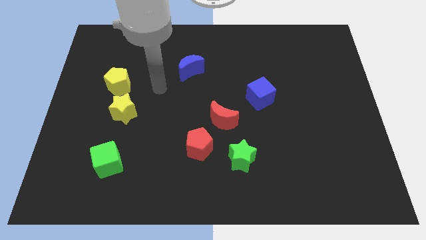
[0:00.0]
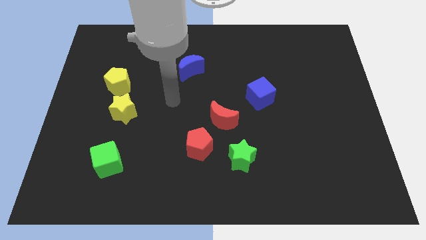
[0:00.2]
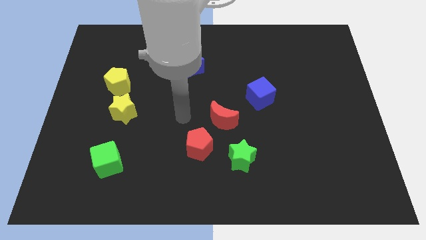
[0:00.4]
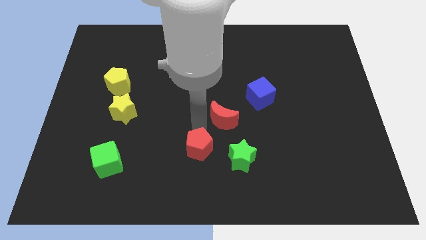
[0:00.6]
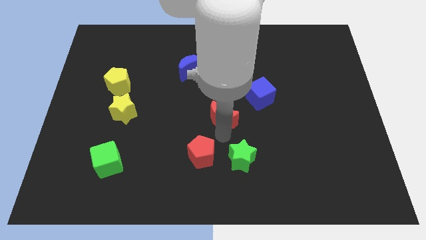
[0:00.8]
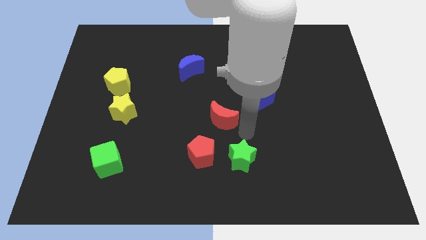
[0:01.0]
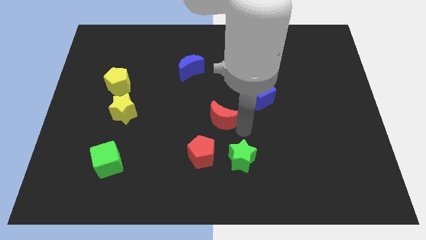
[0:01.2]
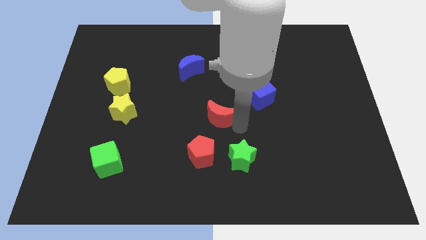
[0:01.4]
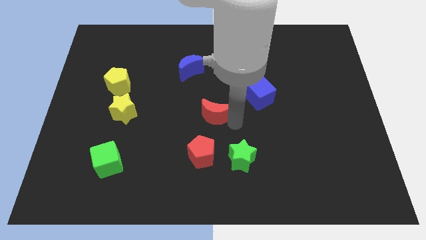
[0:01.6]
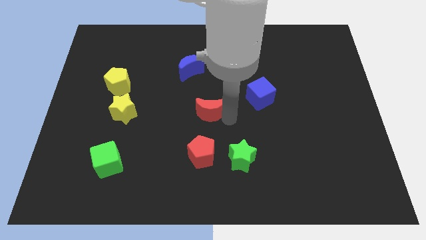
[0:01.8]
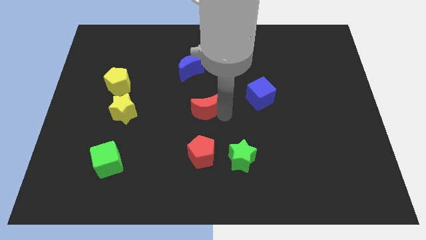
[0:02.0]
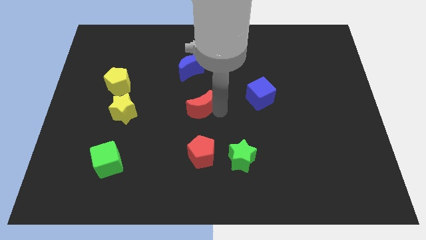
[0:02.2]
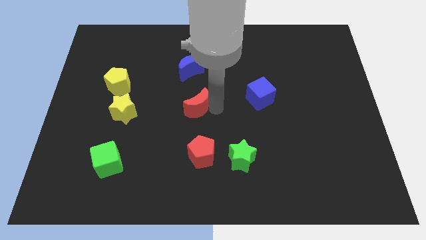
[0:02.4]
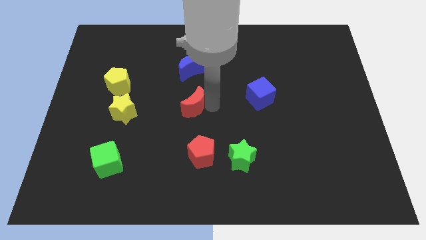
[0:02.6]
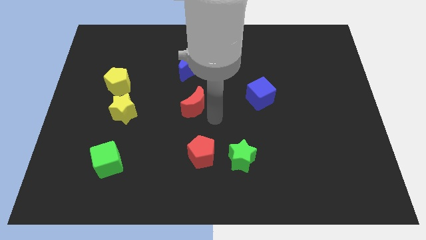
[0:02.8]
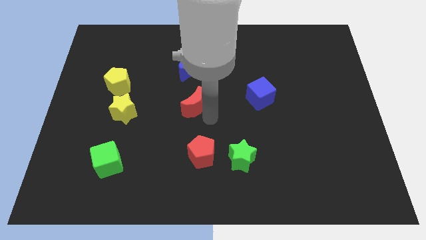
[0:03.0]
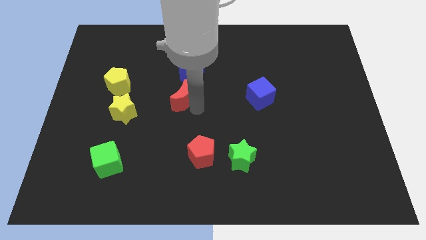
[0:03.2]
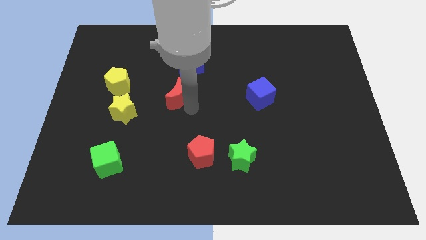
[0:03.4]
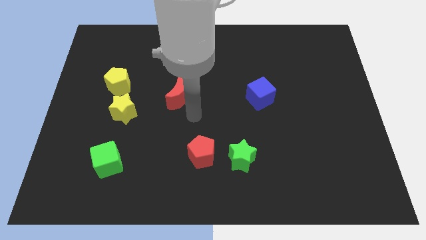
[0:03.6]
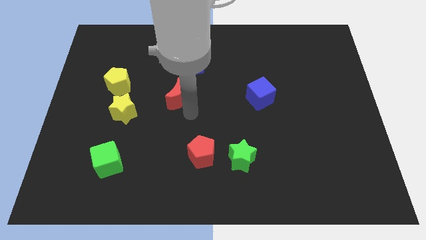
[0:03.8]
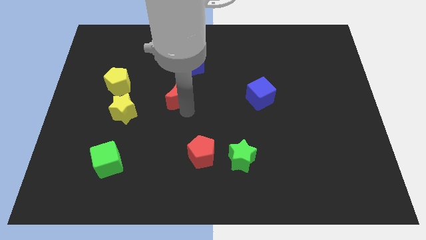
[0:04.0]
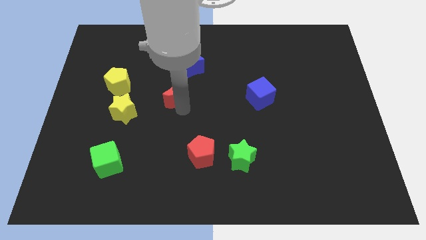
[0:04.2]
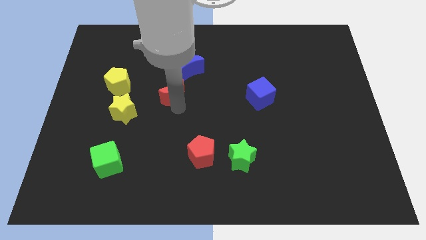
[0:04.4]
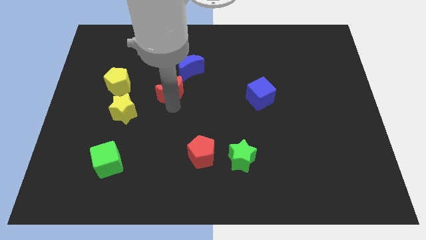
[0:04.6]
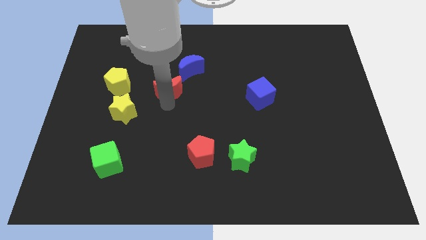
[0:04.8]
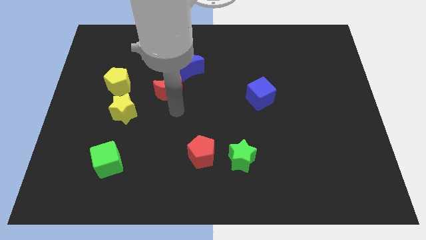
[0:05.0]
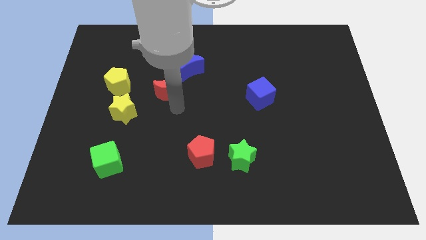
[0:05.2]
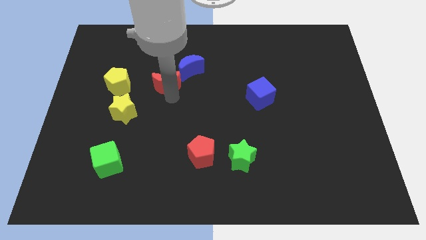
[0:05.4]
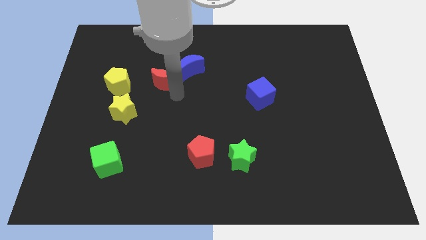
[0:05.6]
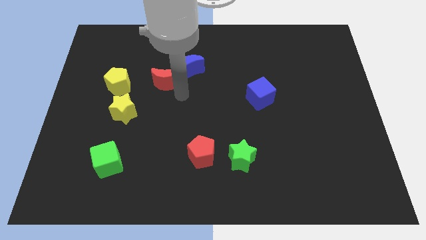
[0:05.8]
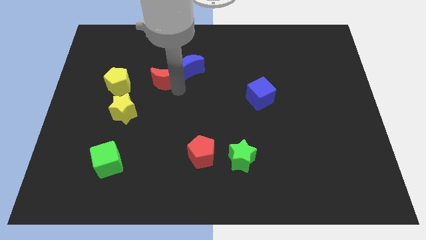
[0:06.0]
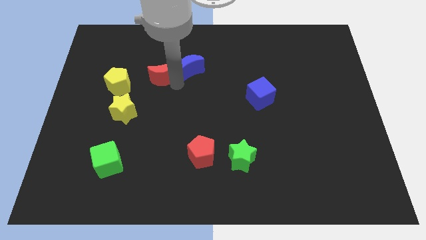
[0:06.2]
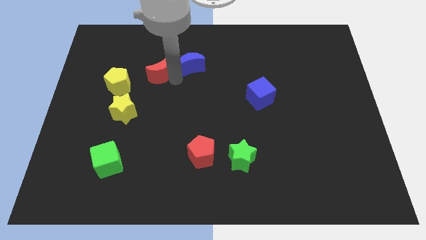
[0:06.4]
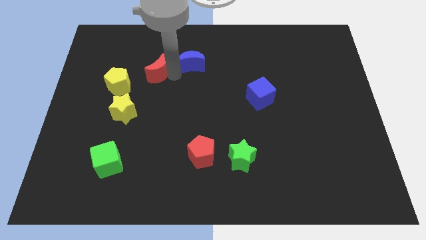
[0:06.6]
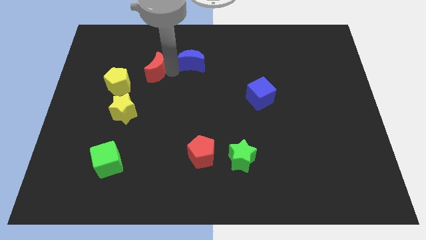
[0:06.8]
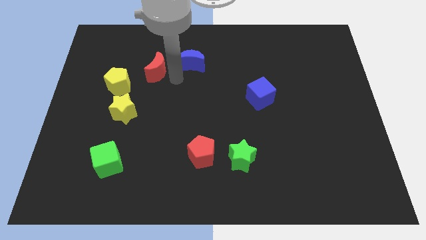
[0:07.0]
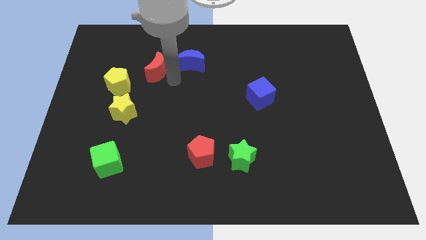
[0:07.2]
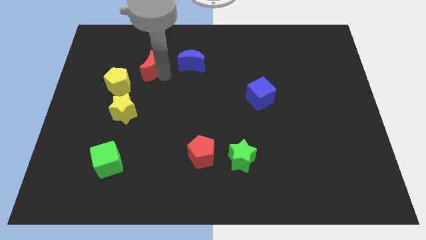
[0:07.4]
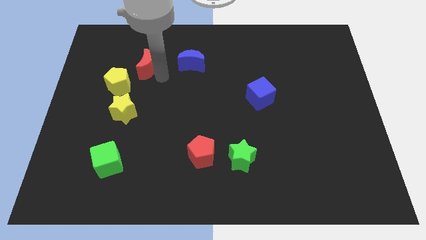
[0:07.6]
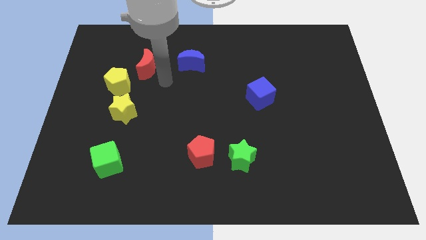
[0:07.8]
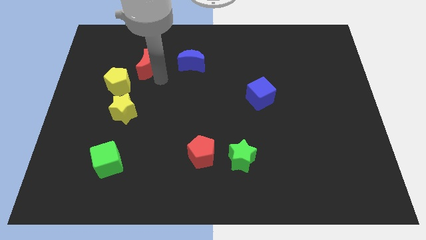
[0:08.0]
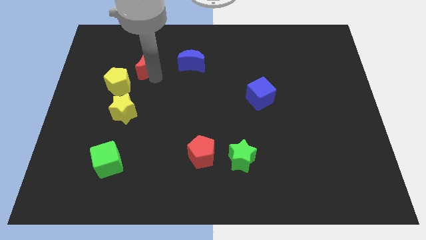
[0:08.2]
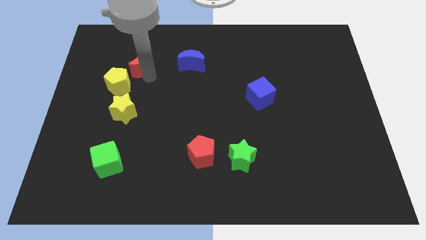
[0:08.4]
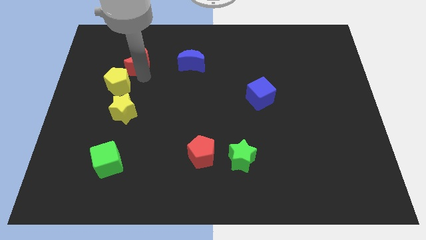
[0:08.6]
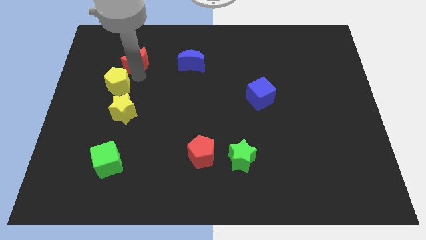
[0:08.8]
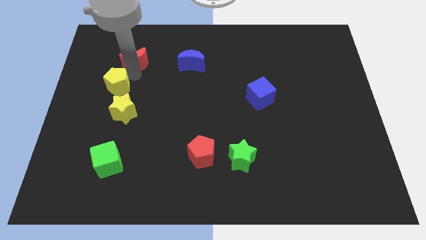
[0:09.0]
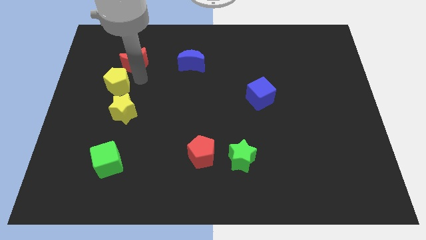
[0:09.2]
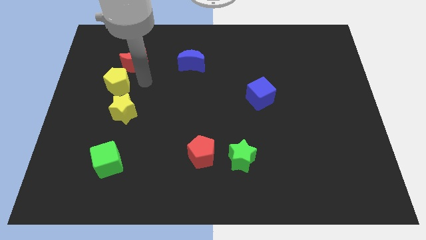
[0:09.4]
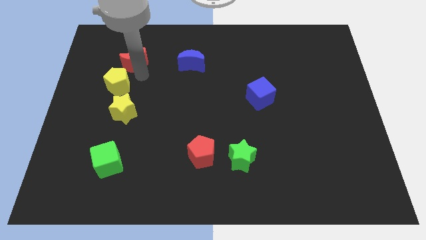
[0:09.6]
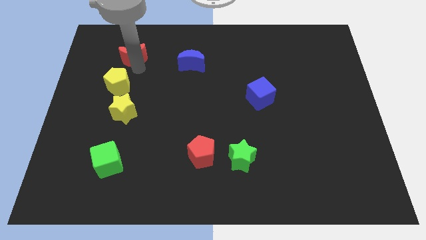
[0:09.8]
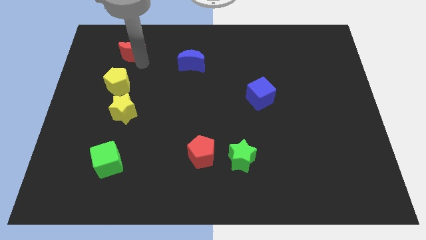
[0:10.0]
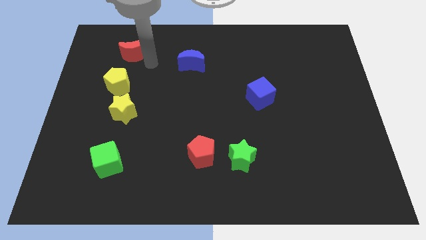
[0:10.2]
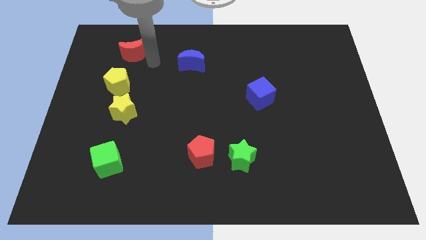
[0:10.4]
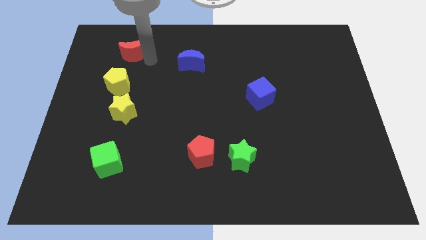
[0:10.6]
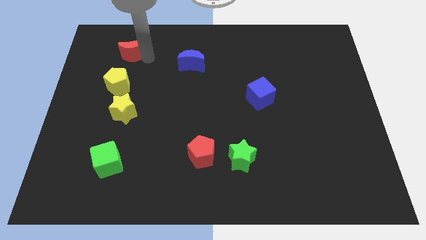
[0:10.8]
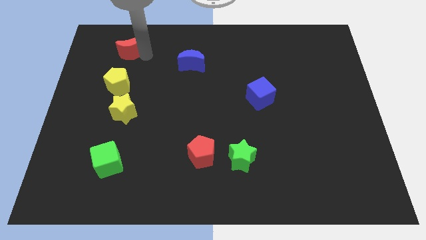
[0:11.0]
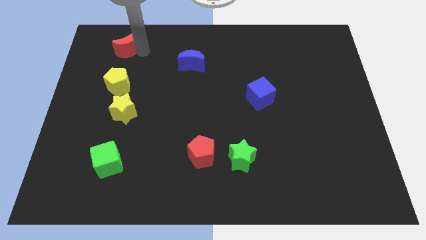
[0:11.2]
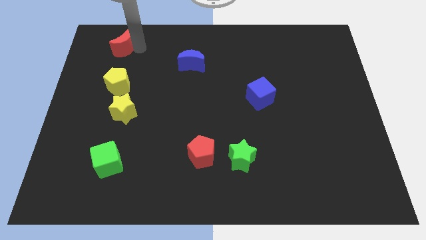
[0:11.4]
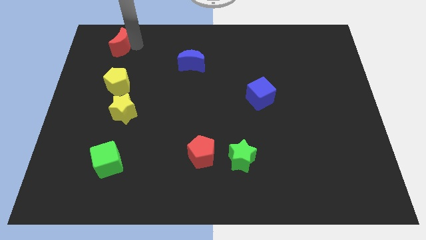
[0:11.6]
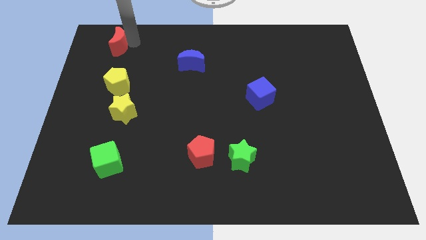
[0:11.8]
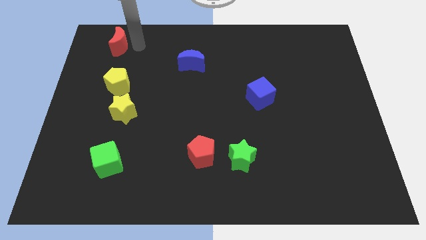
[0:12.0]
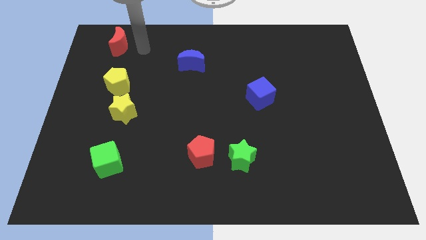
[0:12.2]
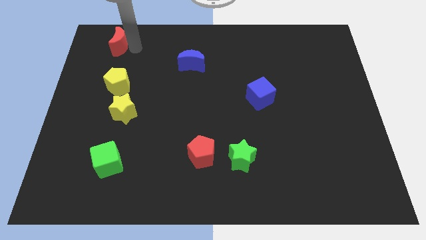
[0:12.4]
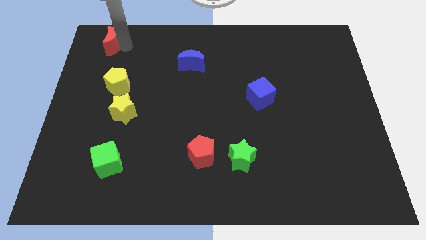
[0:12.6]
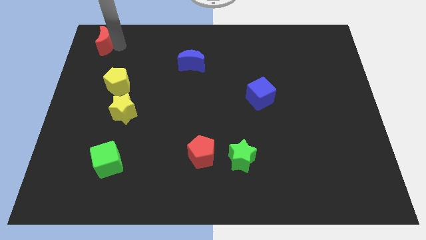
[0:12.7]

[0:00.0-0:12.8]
push the red moon to the upper left corner
